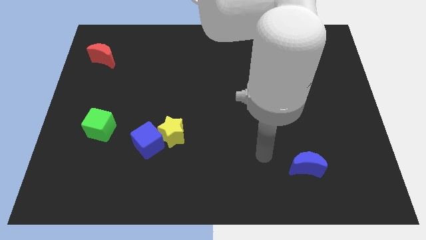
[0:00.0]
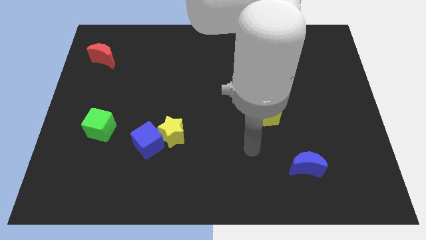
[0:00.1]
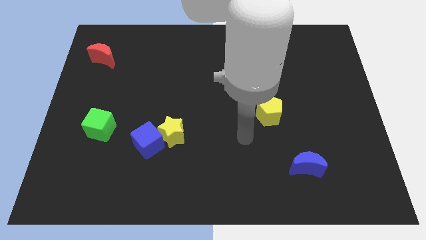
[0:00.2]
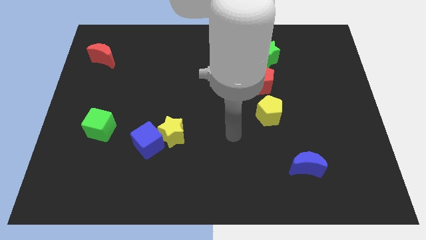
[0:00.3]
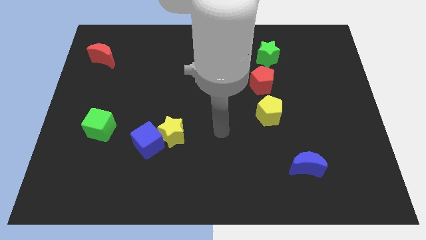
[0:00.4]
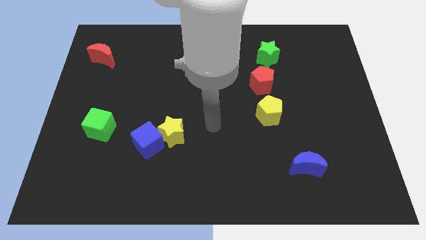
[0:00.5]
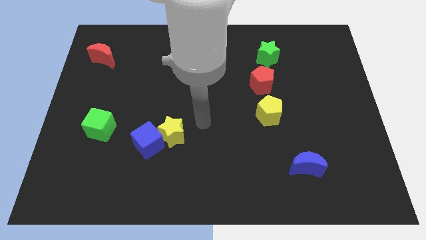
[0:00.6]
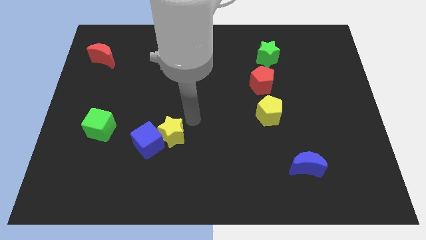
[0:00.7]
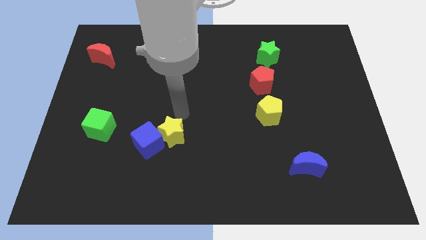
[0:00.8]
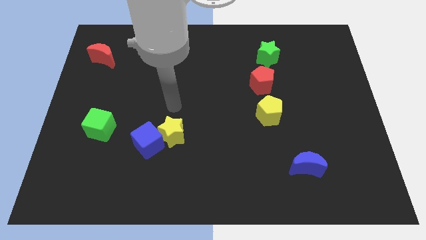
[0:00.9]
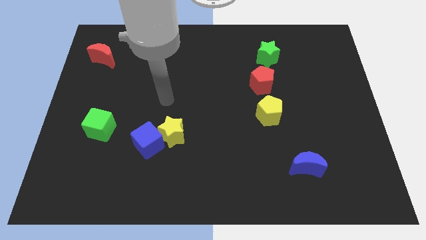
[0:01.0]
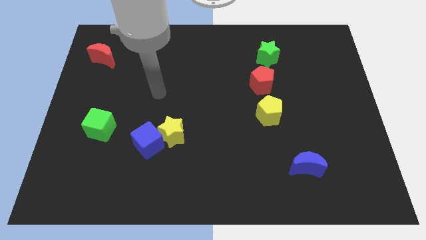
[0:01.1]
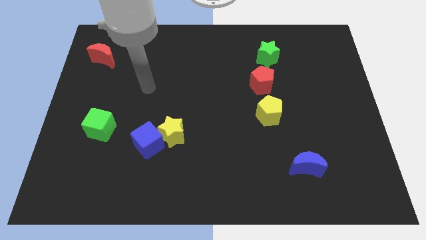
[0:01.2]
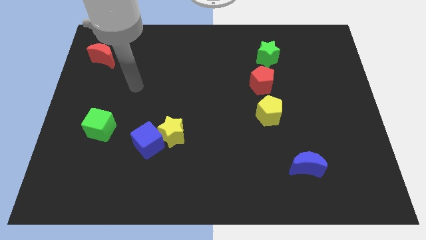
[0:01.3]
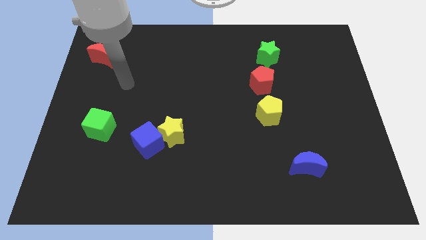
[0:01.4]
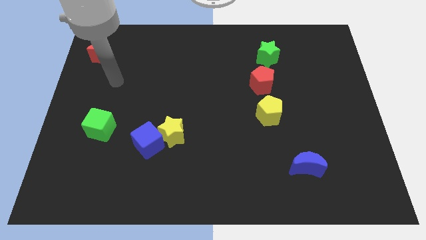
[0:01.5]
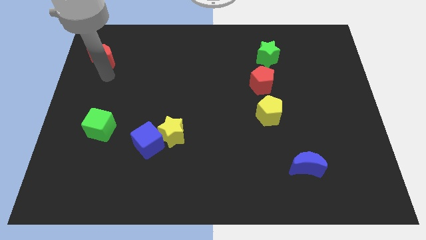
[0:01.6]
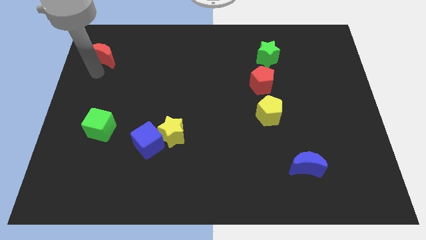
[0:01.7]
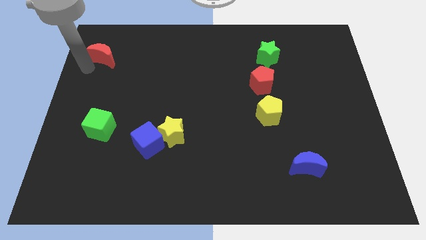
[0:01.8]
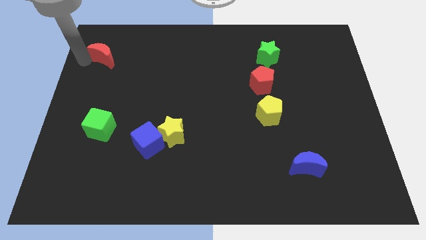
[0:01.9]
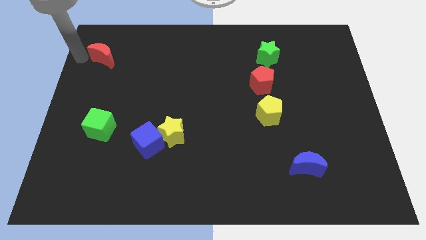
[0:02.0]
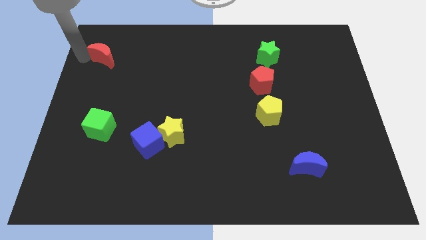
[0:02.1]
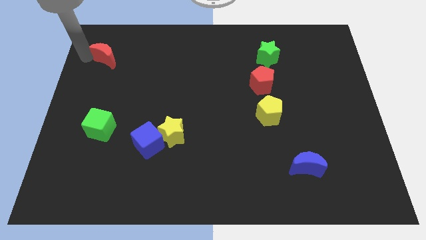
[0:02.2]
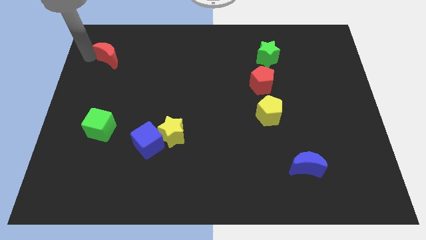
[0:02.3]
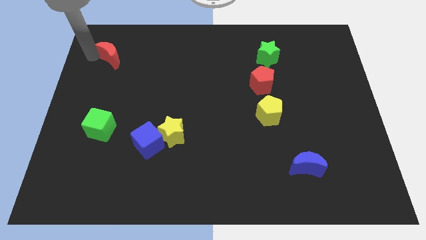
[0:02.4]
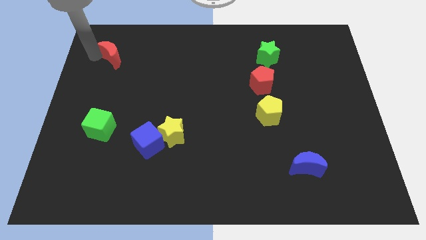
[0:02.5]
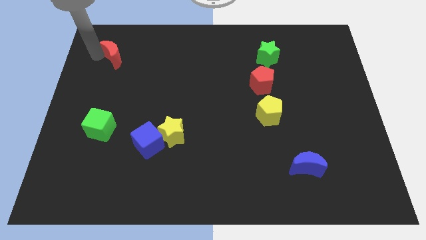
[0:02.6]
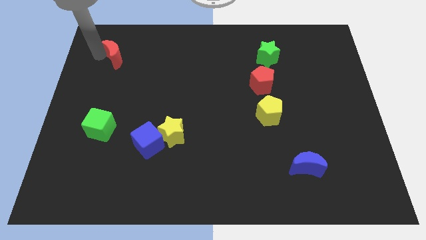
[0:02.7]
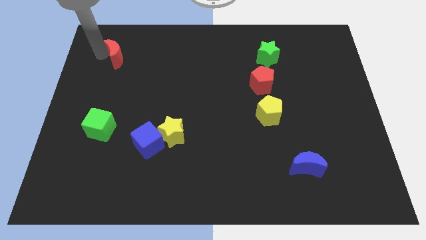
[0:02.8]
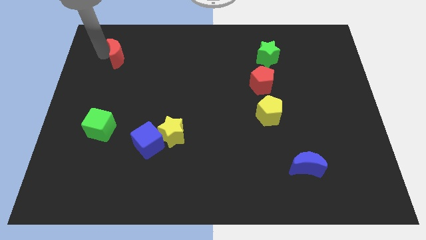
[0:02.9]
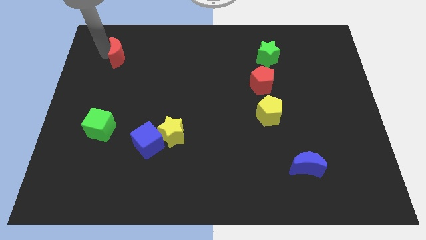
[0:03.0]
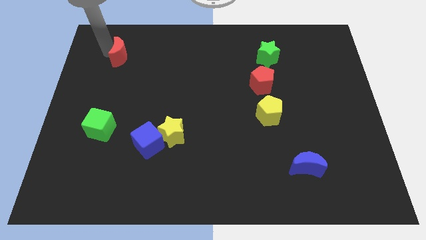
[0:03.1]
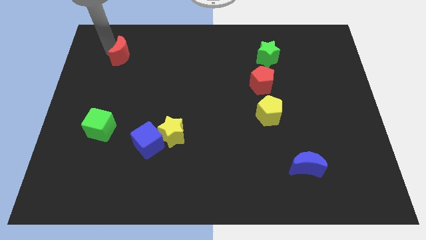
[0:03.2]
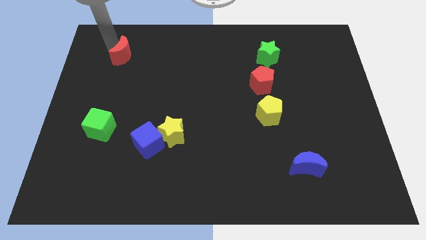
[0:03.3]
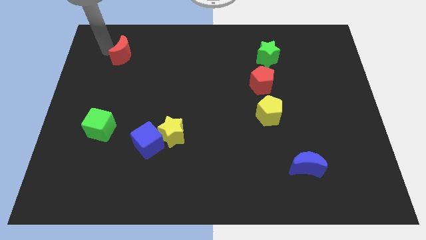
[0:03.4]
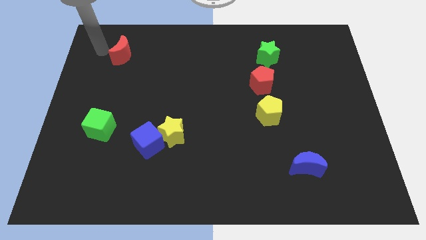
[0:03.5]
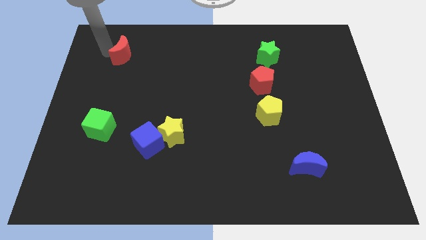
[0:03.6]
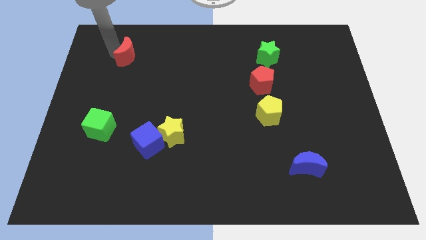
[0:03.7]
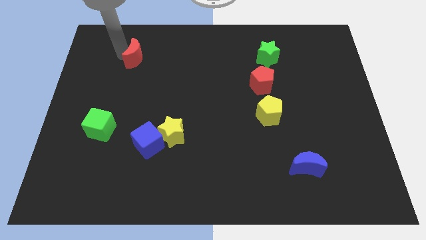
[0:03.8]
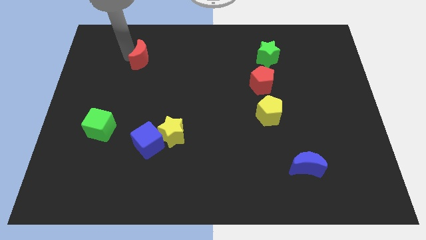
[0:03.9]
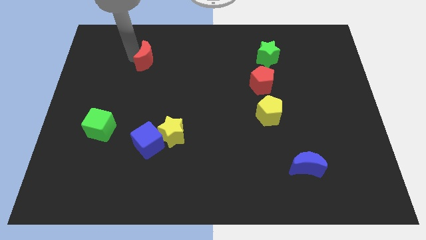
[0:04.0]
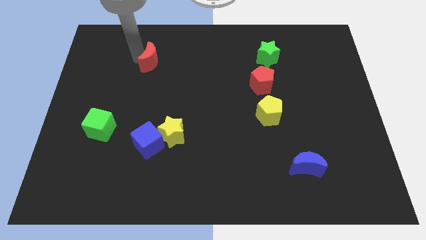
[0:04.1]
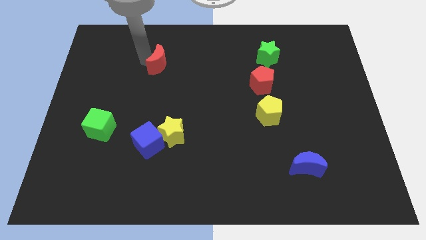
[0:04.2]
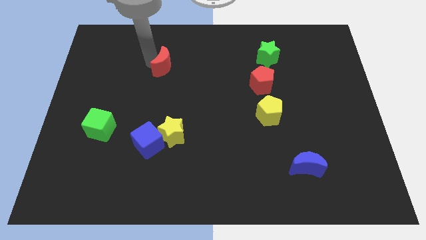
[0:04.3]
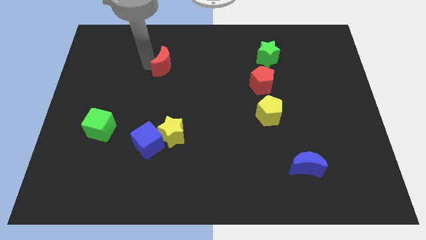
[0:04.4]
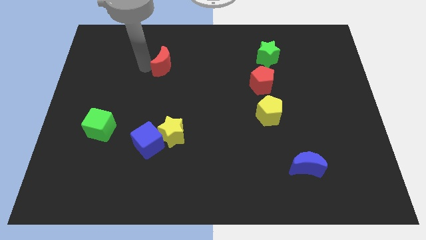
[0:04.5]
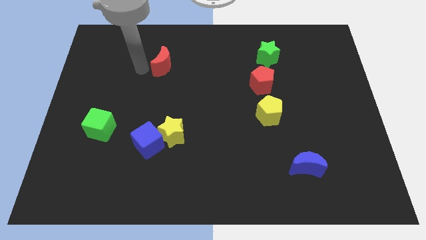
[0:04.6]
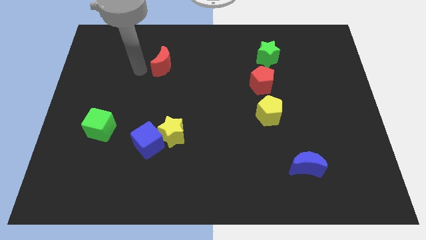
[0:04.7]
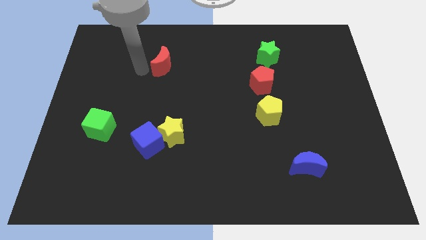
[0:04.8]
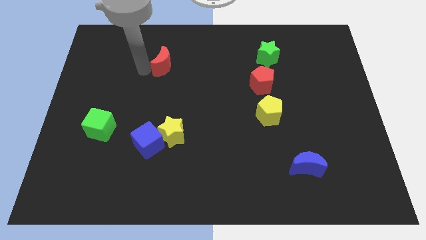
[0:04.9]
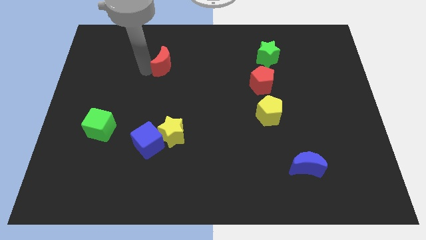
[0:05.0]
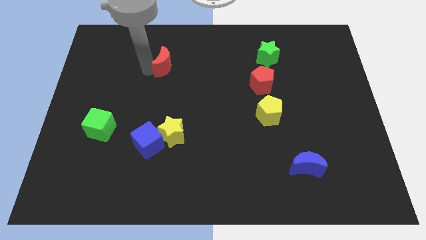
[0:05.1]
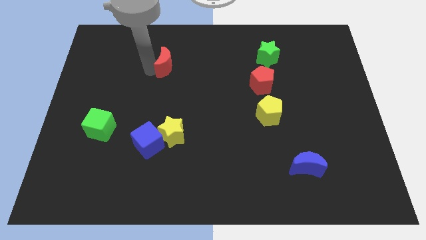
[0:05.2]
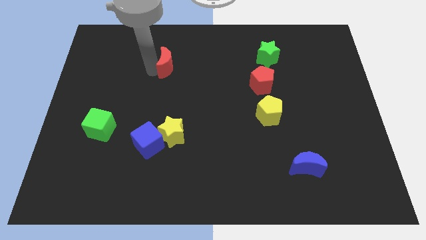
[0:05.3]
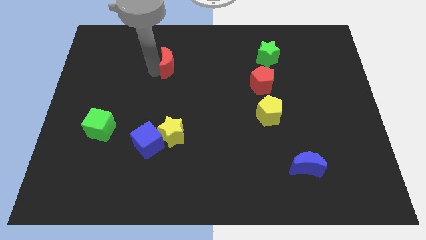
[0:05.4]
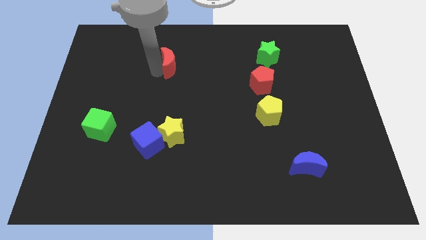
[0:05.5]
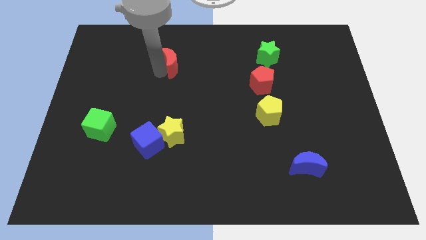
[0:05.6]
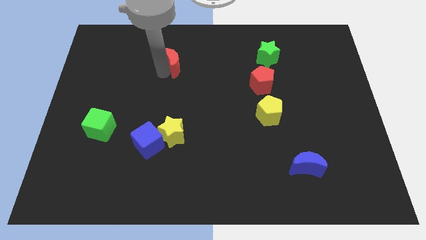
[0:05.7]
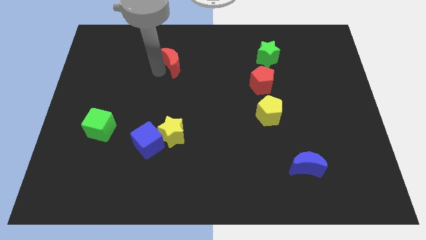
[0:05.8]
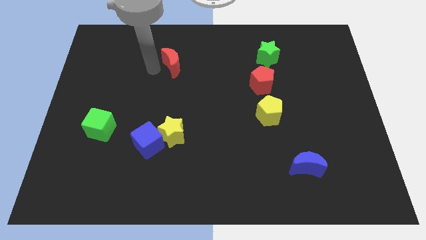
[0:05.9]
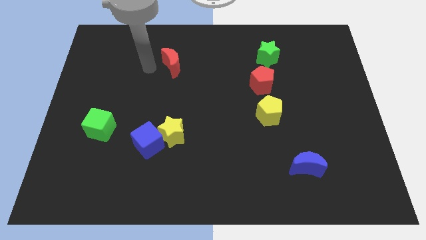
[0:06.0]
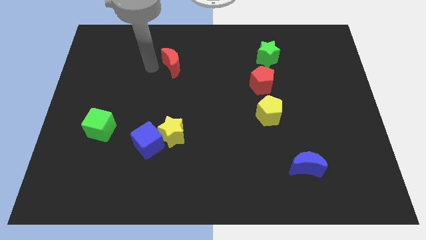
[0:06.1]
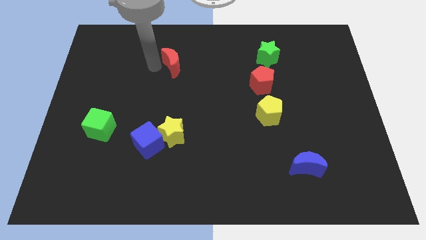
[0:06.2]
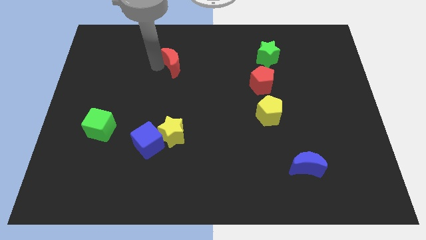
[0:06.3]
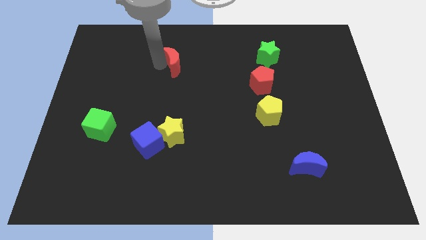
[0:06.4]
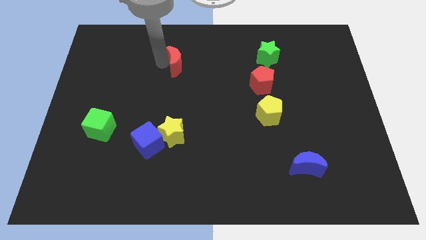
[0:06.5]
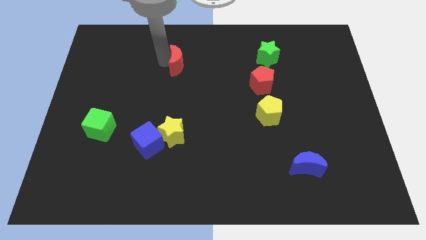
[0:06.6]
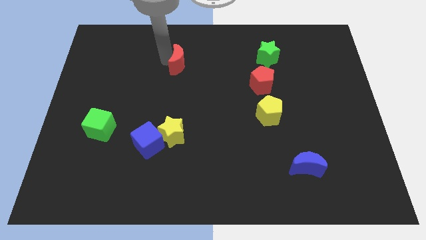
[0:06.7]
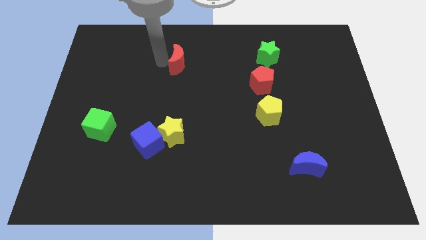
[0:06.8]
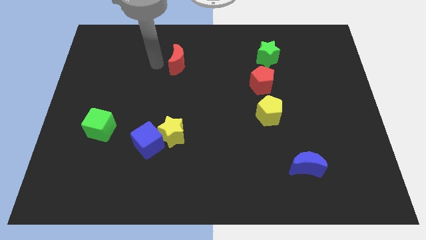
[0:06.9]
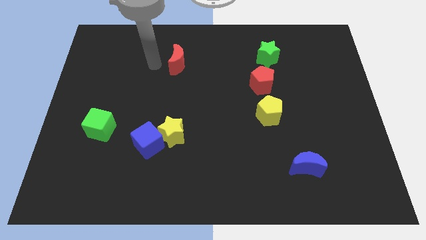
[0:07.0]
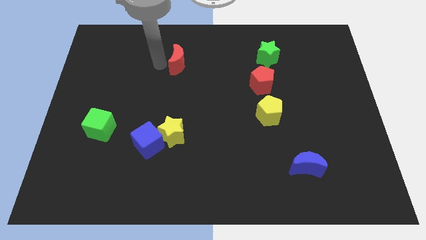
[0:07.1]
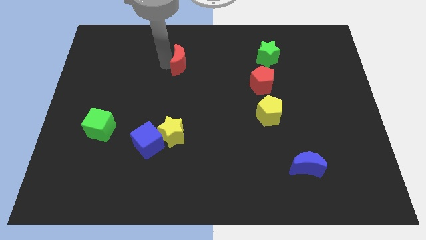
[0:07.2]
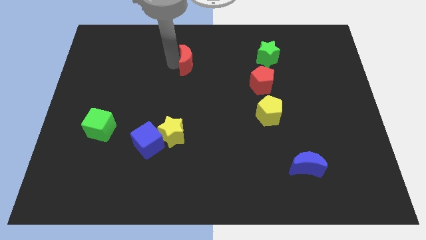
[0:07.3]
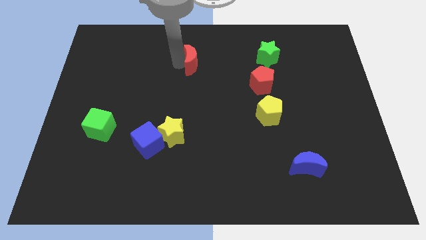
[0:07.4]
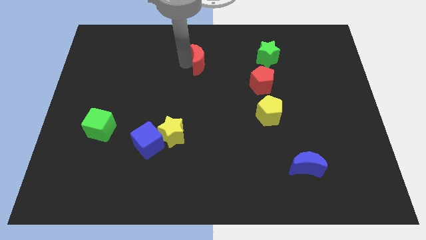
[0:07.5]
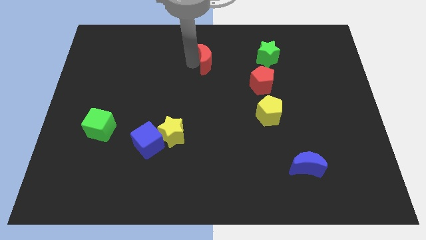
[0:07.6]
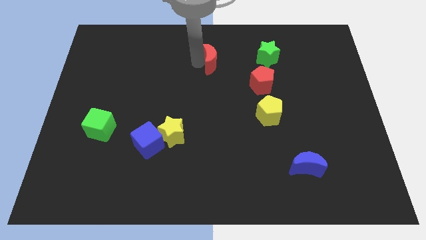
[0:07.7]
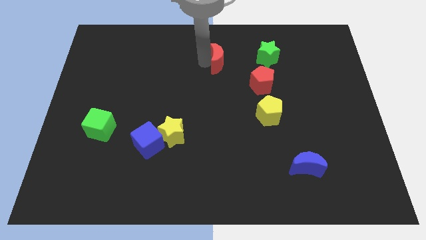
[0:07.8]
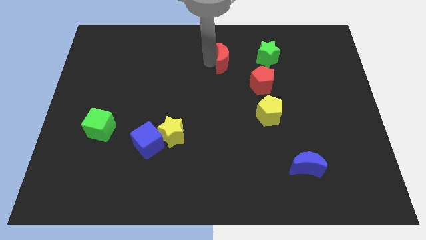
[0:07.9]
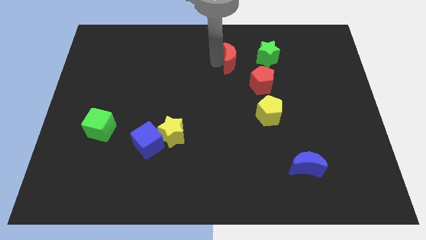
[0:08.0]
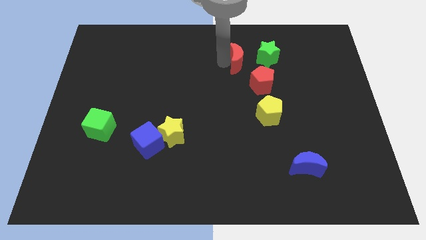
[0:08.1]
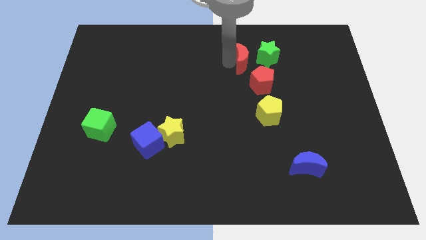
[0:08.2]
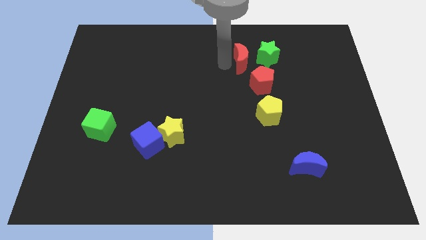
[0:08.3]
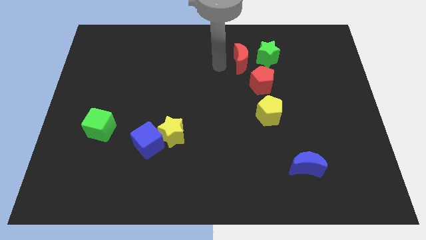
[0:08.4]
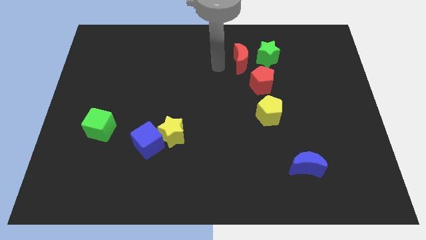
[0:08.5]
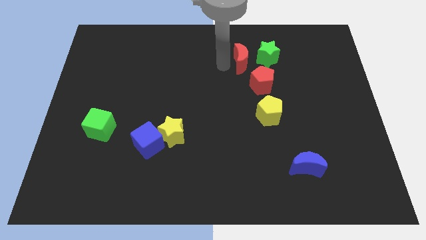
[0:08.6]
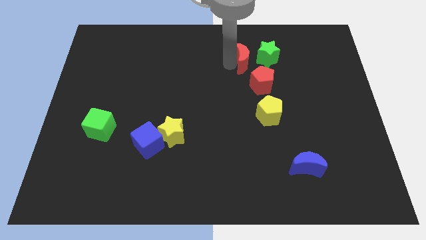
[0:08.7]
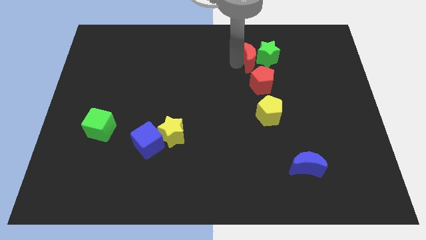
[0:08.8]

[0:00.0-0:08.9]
push the red moon to the green star
